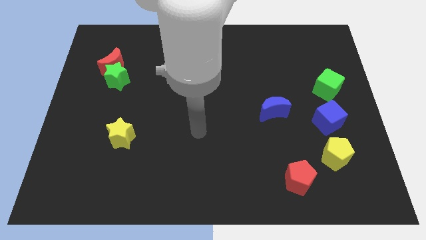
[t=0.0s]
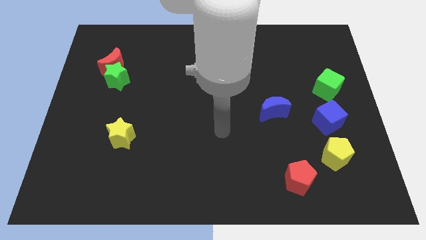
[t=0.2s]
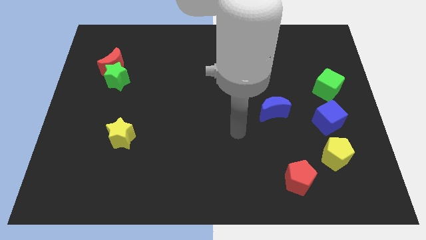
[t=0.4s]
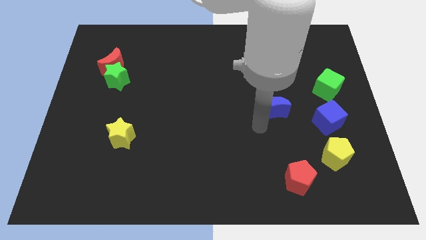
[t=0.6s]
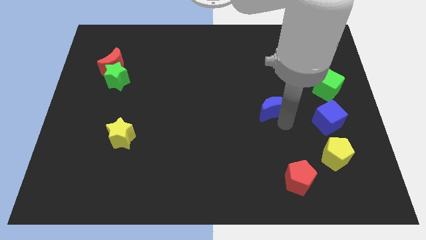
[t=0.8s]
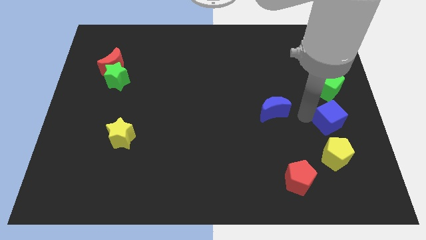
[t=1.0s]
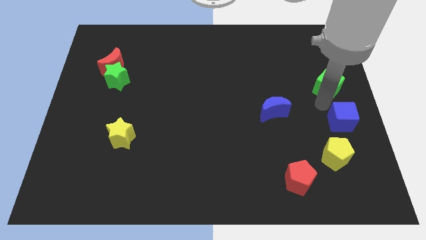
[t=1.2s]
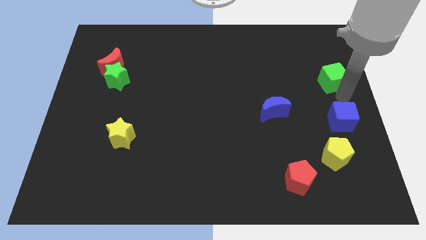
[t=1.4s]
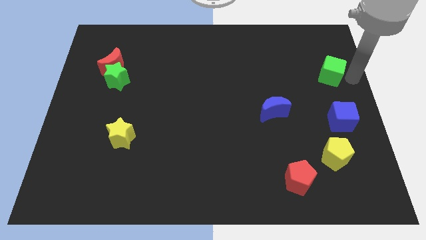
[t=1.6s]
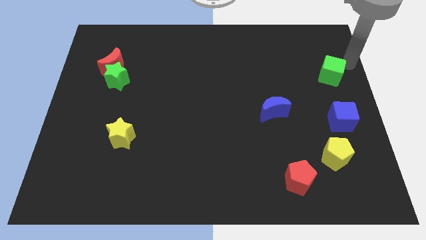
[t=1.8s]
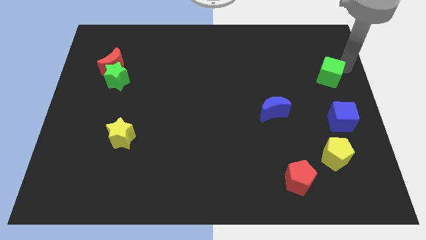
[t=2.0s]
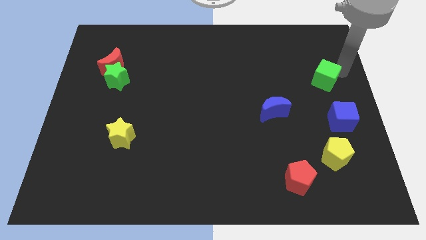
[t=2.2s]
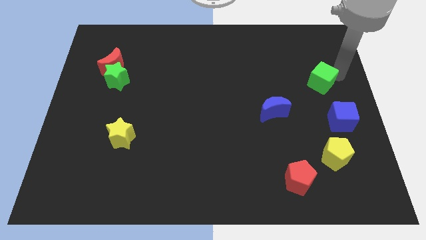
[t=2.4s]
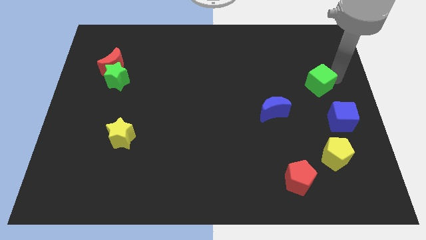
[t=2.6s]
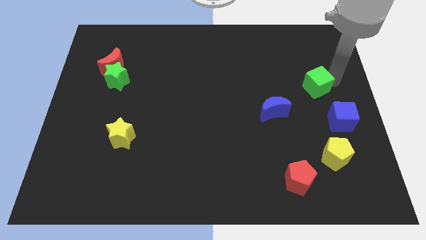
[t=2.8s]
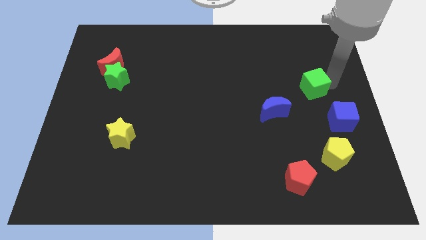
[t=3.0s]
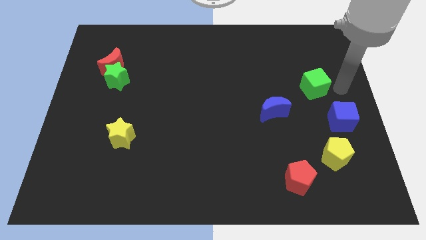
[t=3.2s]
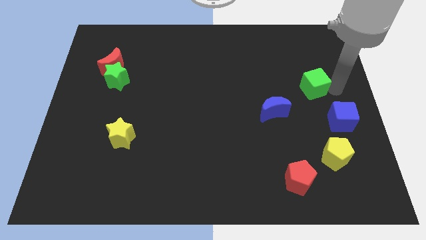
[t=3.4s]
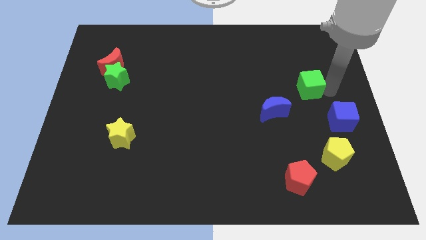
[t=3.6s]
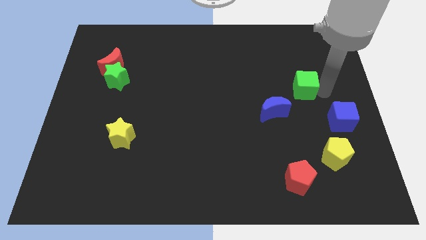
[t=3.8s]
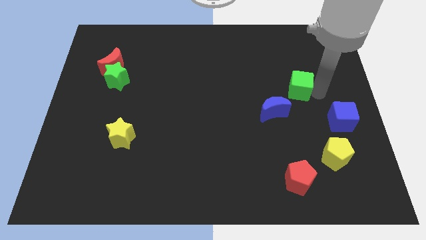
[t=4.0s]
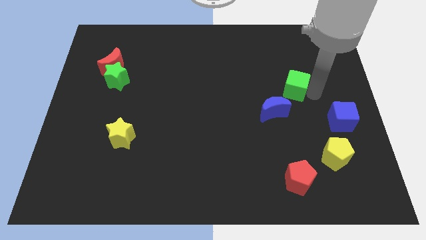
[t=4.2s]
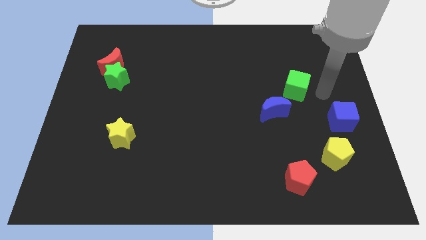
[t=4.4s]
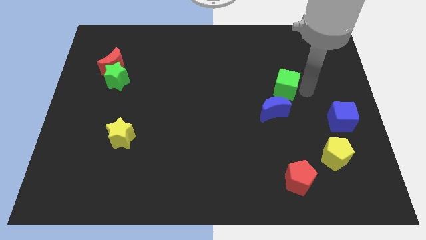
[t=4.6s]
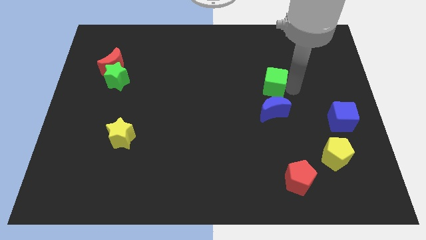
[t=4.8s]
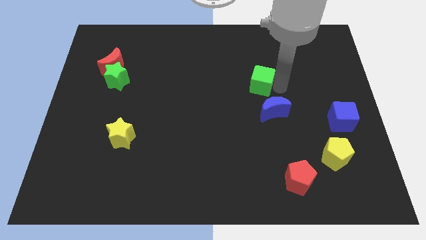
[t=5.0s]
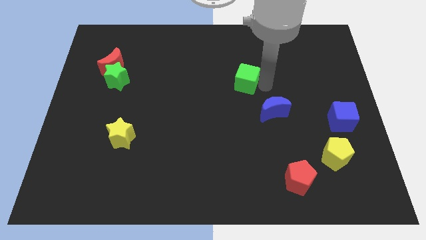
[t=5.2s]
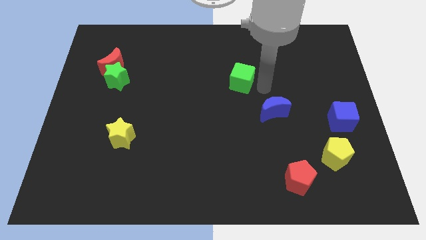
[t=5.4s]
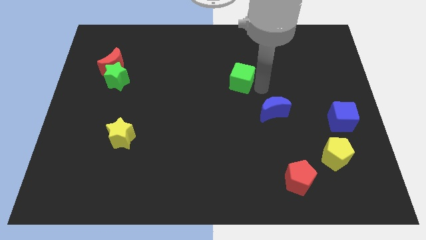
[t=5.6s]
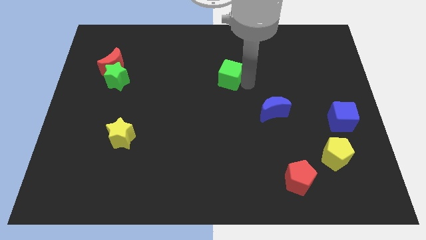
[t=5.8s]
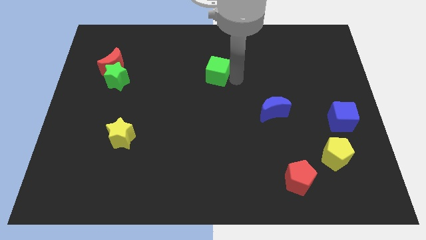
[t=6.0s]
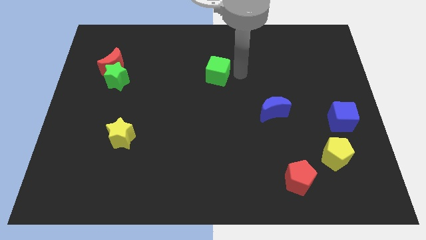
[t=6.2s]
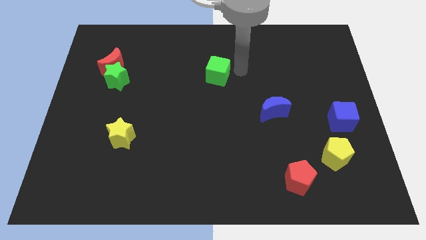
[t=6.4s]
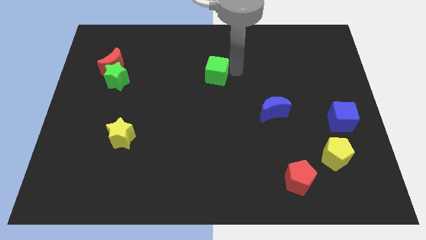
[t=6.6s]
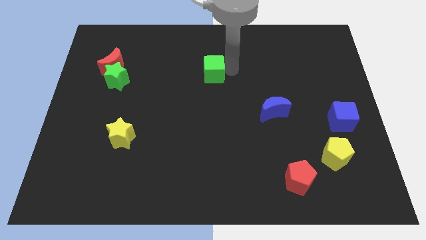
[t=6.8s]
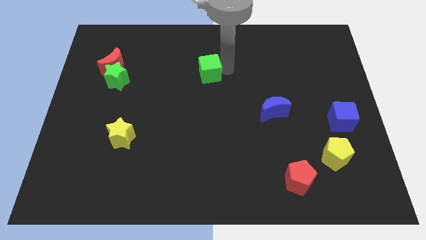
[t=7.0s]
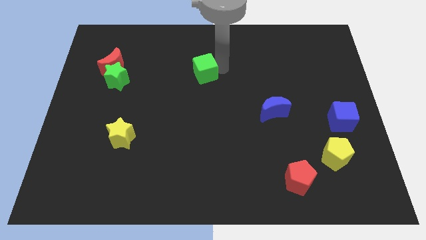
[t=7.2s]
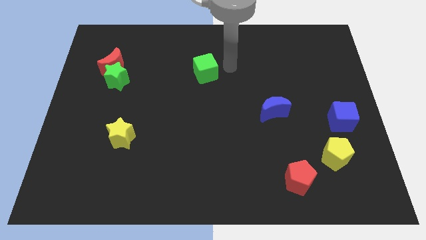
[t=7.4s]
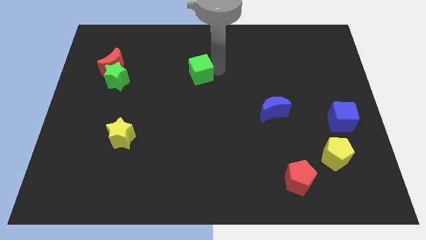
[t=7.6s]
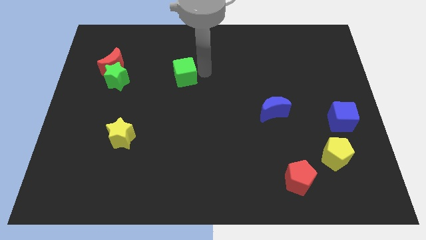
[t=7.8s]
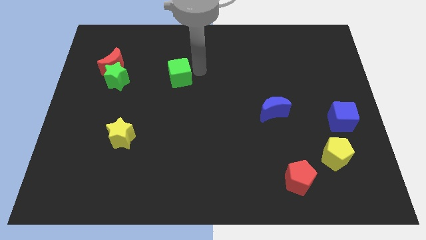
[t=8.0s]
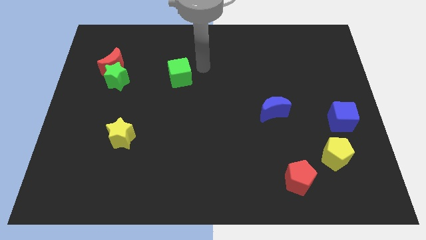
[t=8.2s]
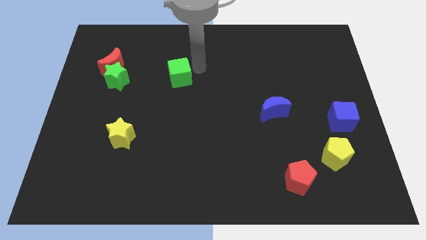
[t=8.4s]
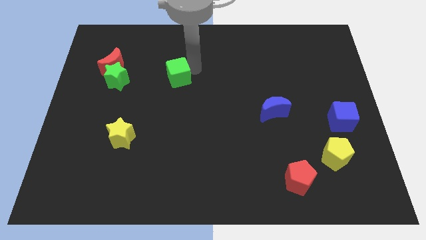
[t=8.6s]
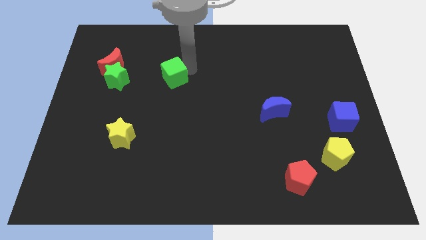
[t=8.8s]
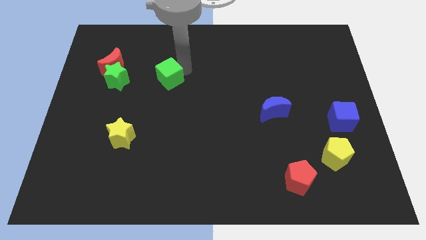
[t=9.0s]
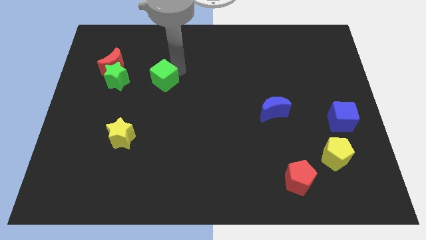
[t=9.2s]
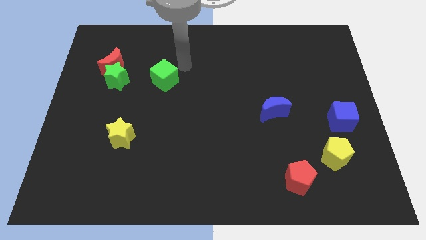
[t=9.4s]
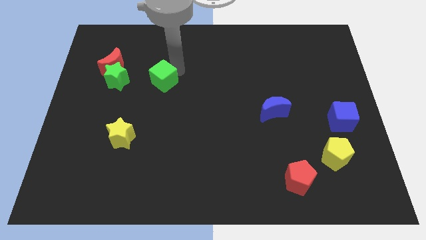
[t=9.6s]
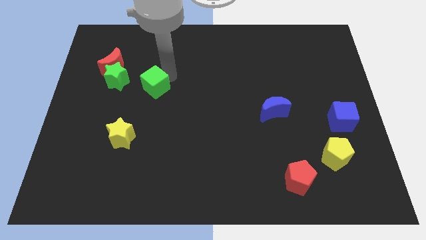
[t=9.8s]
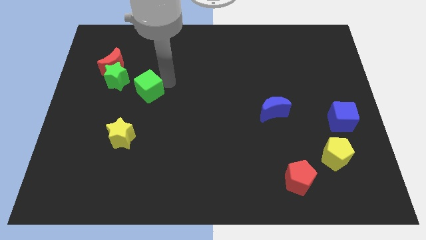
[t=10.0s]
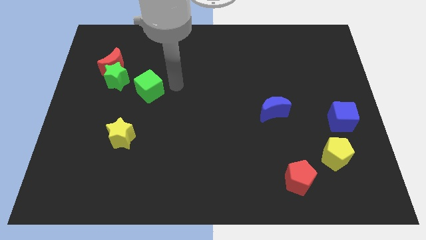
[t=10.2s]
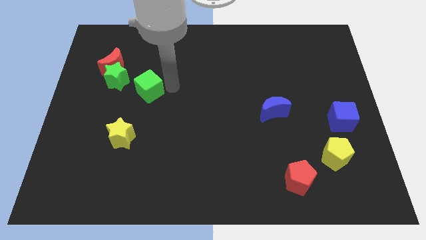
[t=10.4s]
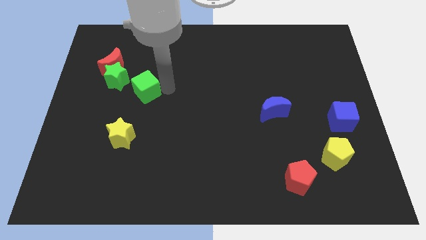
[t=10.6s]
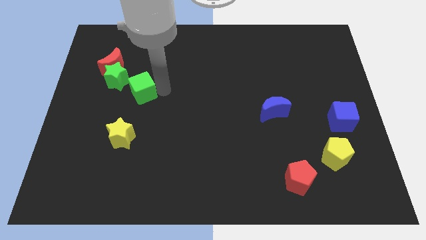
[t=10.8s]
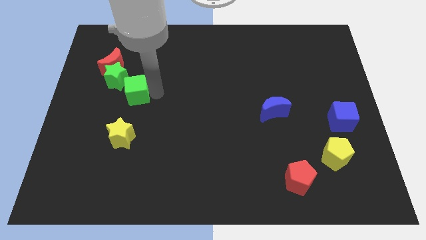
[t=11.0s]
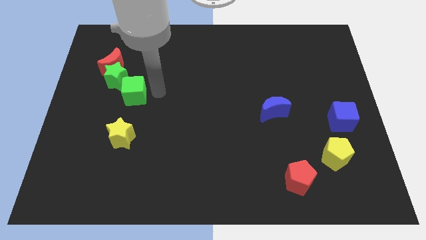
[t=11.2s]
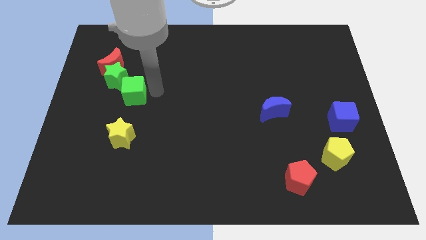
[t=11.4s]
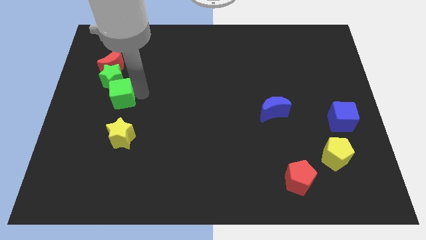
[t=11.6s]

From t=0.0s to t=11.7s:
slide the green cube below the red moon

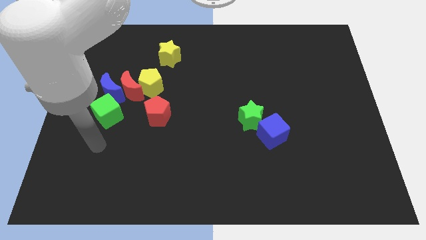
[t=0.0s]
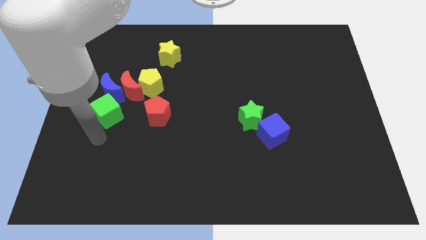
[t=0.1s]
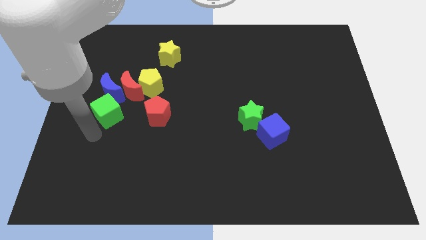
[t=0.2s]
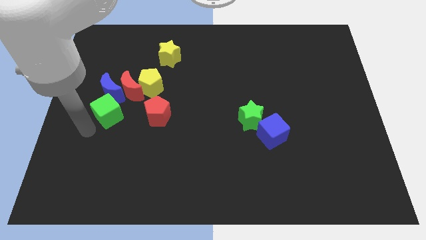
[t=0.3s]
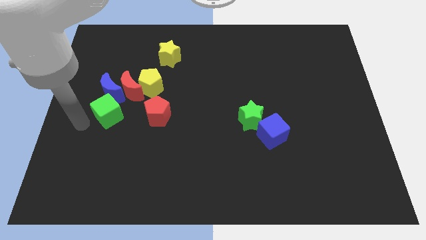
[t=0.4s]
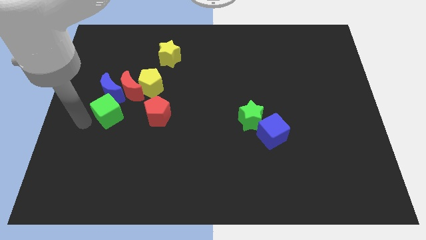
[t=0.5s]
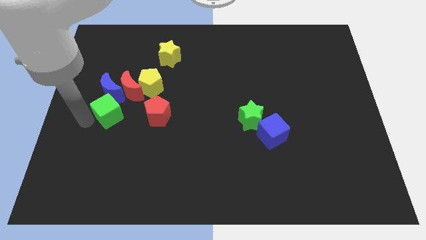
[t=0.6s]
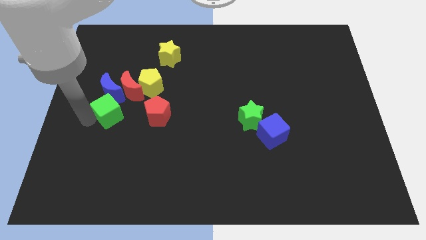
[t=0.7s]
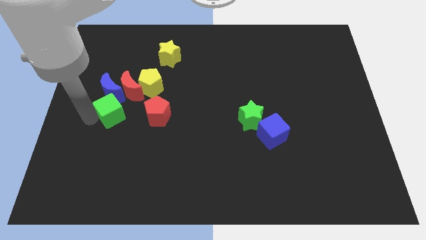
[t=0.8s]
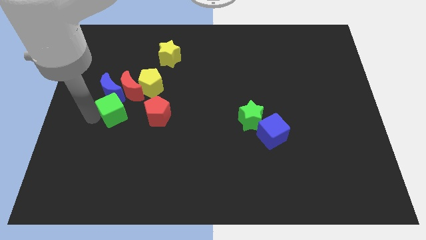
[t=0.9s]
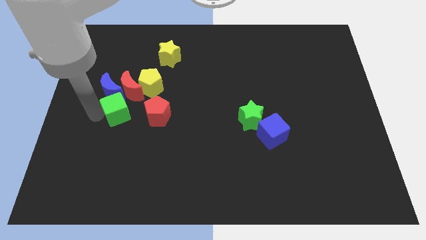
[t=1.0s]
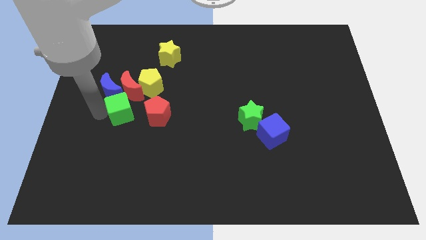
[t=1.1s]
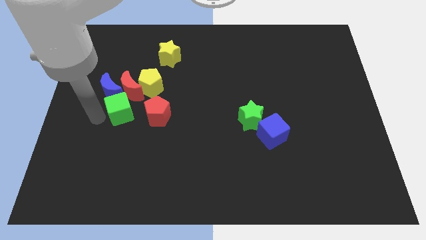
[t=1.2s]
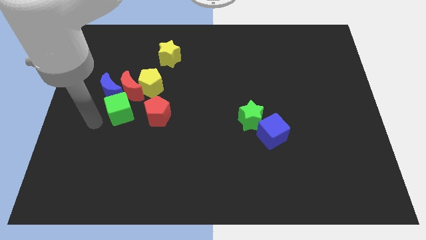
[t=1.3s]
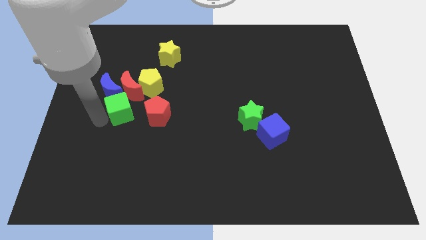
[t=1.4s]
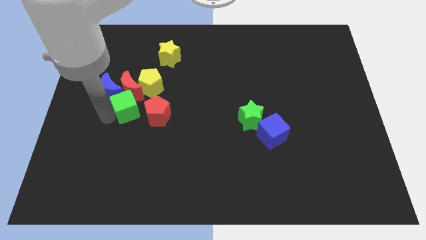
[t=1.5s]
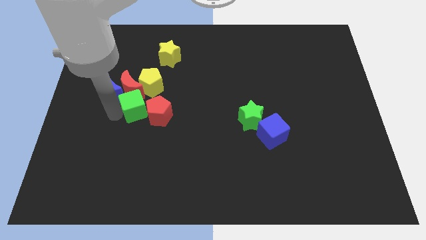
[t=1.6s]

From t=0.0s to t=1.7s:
put the green cube just right of the blue moon
